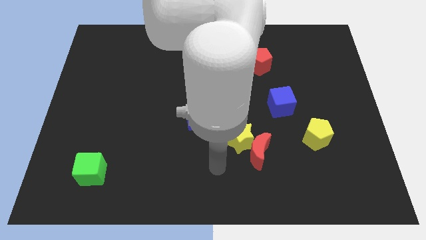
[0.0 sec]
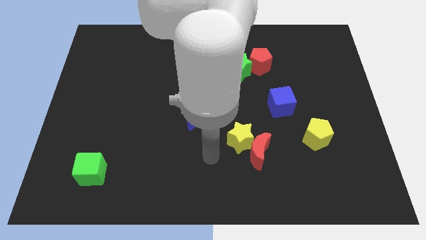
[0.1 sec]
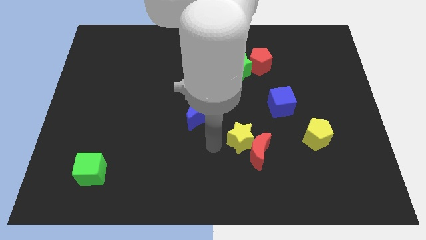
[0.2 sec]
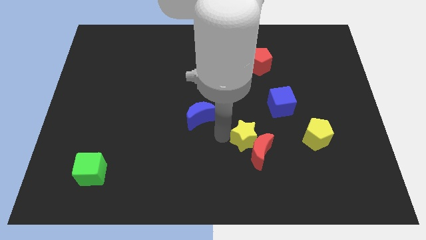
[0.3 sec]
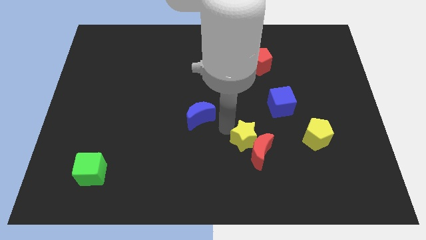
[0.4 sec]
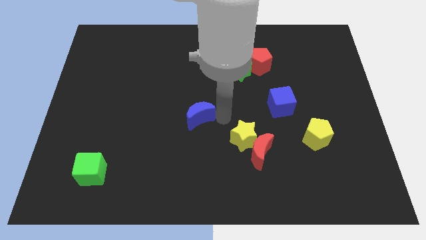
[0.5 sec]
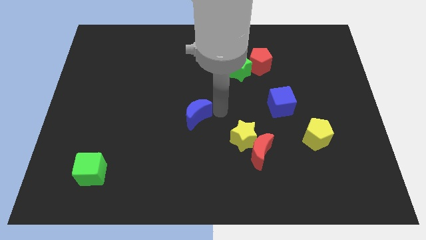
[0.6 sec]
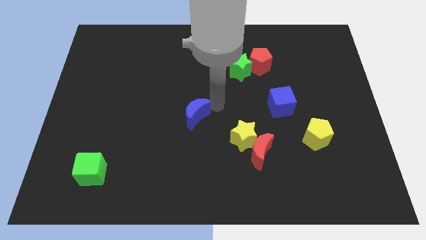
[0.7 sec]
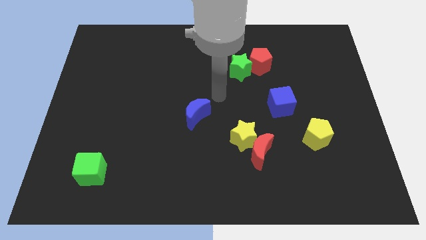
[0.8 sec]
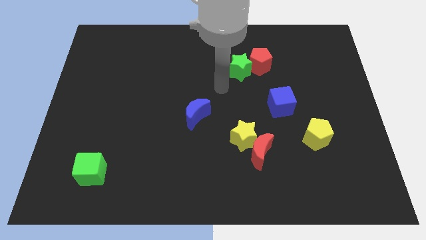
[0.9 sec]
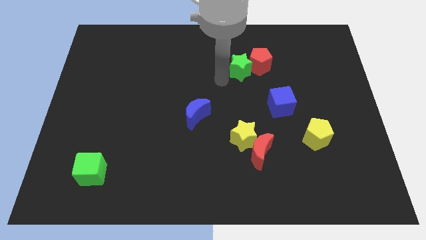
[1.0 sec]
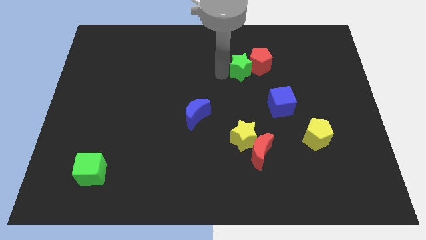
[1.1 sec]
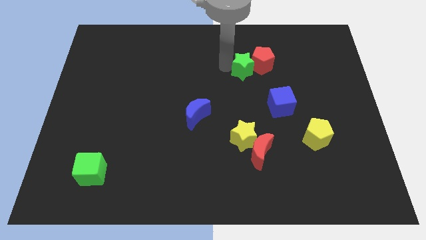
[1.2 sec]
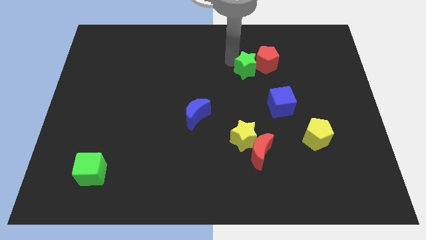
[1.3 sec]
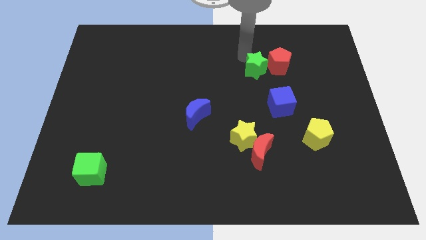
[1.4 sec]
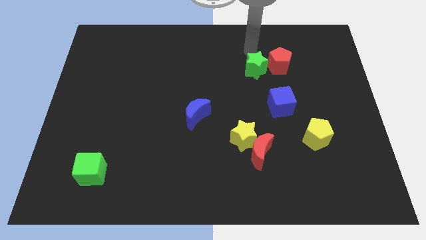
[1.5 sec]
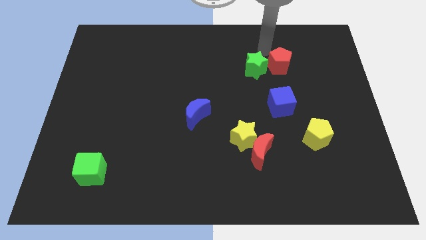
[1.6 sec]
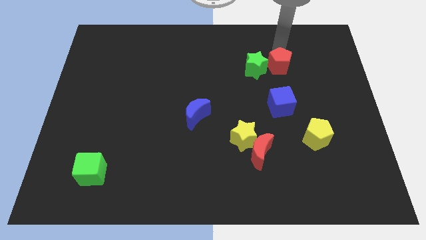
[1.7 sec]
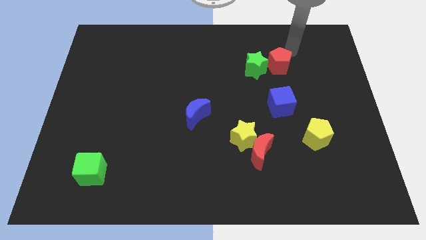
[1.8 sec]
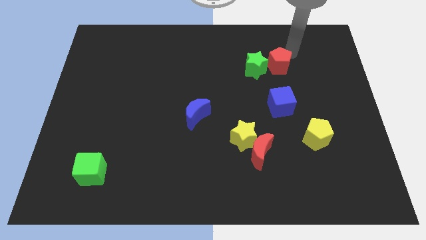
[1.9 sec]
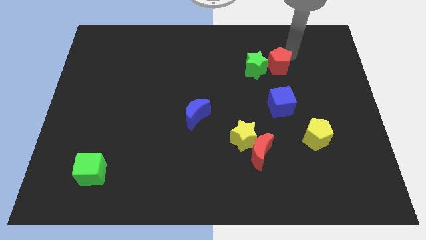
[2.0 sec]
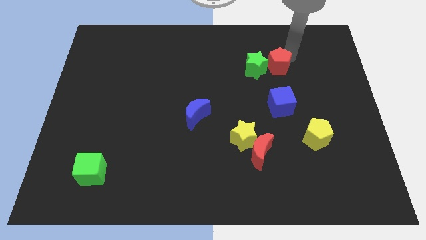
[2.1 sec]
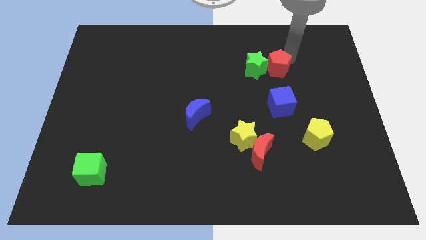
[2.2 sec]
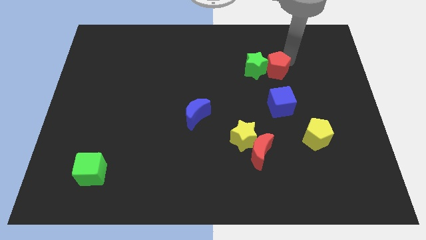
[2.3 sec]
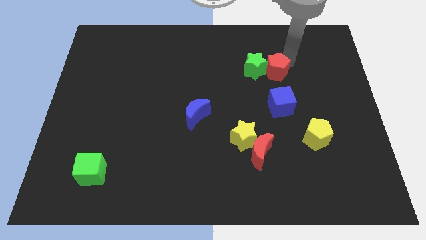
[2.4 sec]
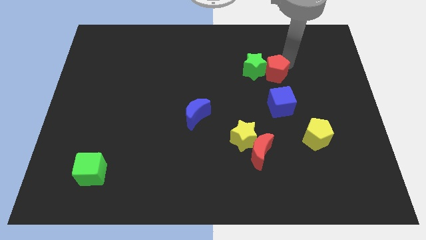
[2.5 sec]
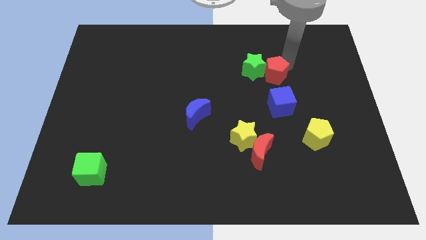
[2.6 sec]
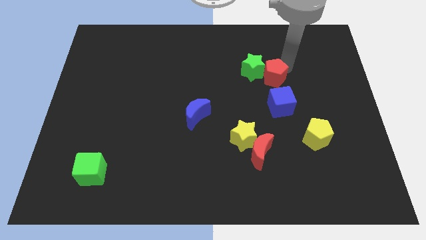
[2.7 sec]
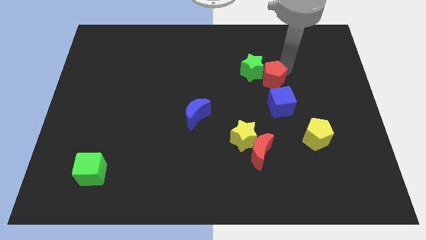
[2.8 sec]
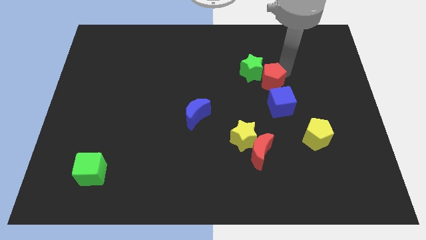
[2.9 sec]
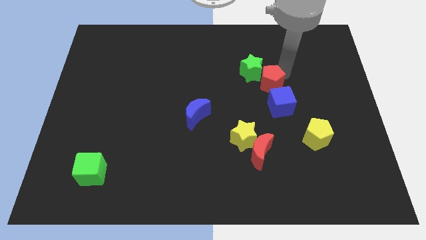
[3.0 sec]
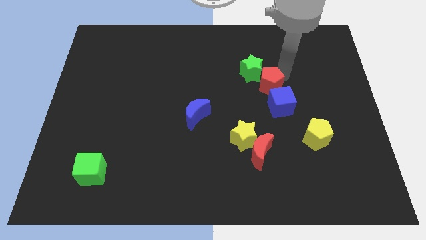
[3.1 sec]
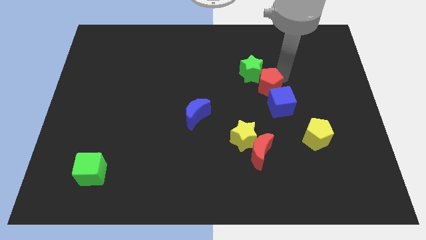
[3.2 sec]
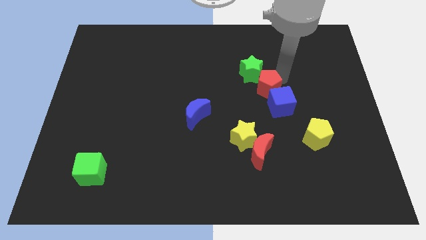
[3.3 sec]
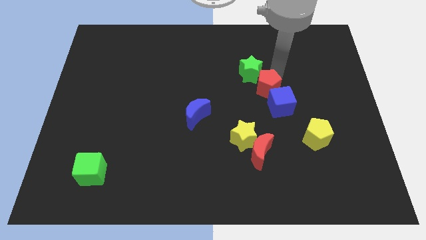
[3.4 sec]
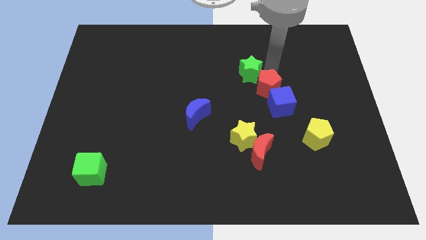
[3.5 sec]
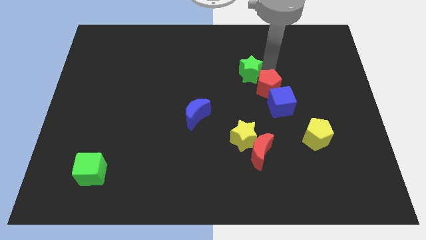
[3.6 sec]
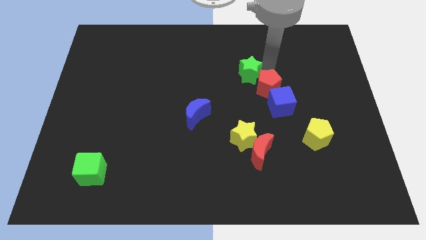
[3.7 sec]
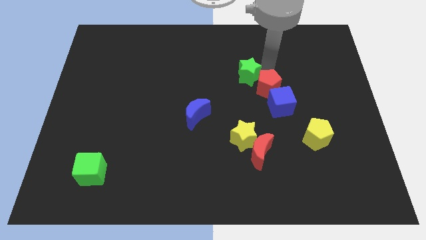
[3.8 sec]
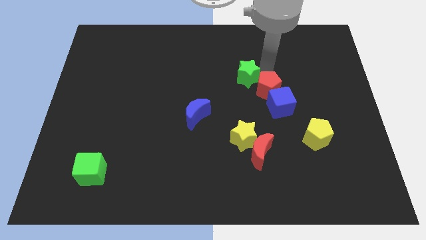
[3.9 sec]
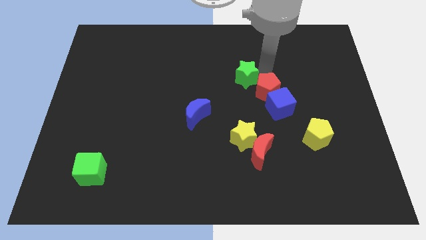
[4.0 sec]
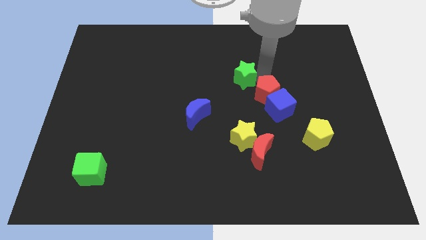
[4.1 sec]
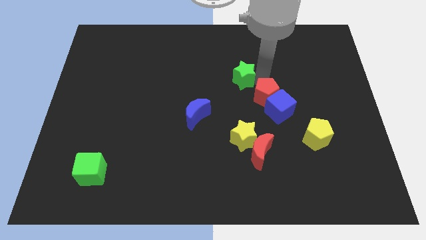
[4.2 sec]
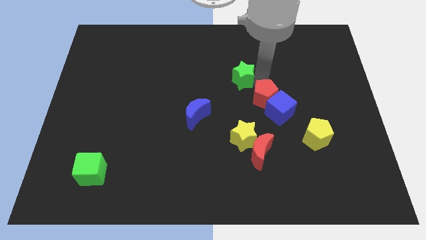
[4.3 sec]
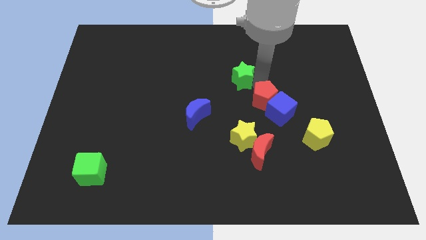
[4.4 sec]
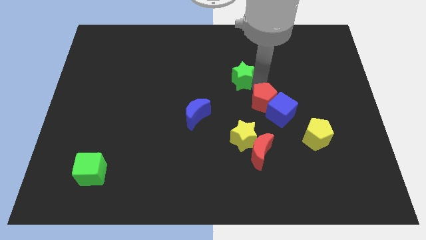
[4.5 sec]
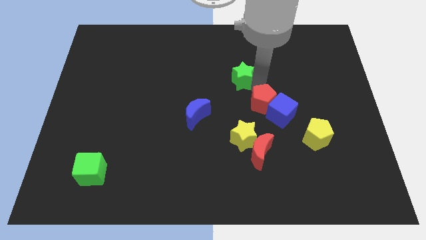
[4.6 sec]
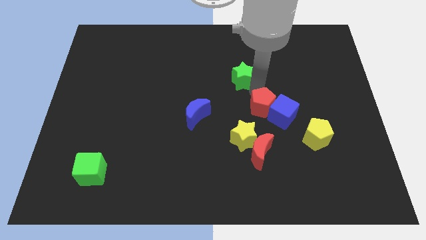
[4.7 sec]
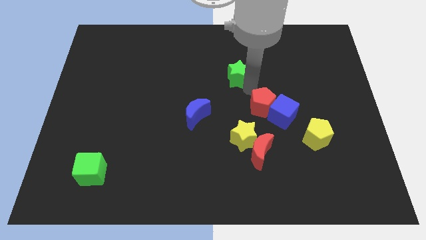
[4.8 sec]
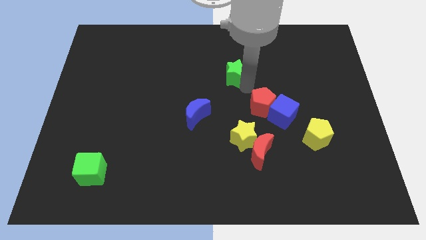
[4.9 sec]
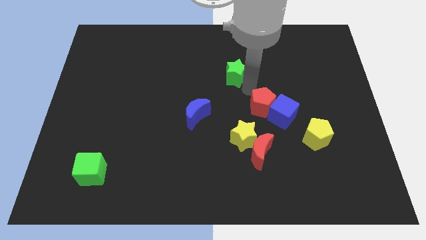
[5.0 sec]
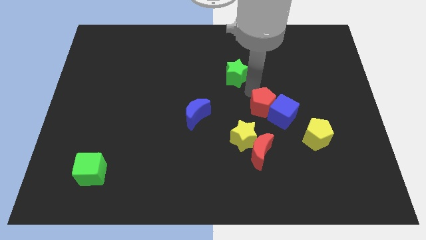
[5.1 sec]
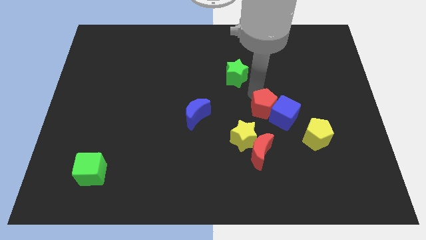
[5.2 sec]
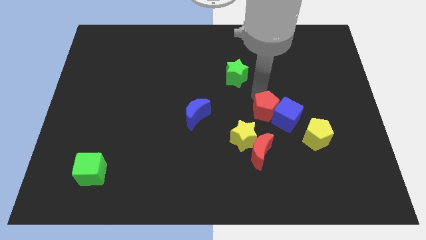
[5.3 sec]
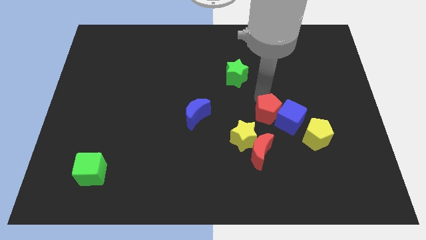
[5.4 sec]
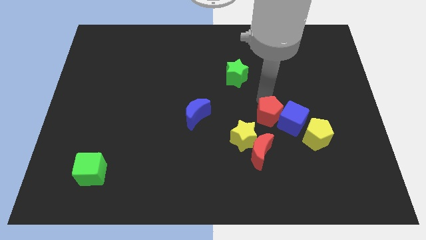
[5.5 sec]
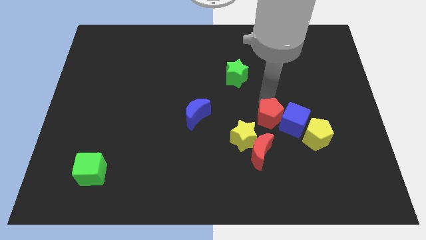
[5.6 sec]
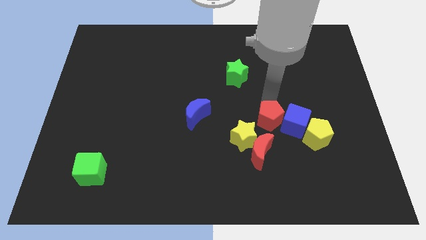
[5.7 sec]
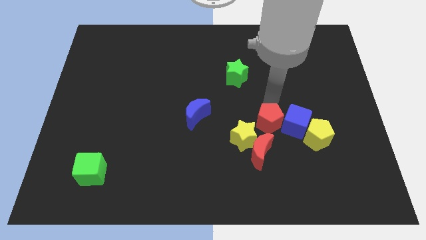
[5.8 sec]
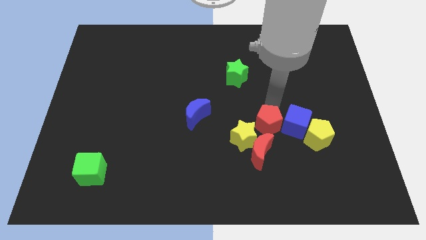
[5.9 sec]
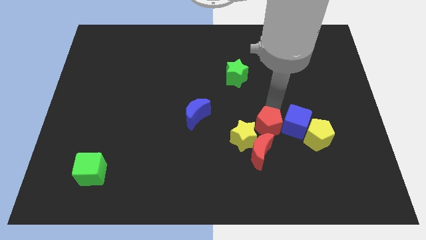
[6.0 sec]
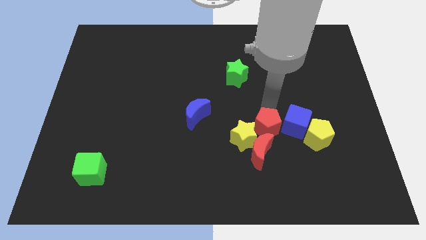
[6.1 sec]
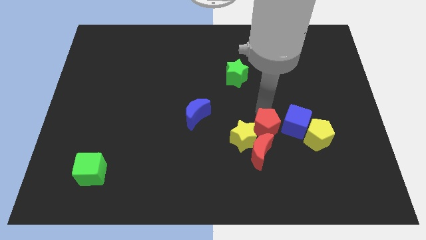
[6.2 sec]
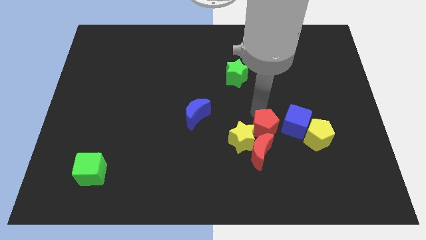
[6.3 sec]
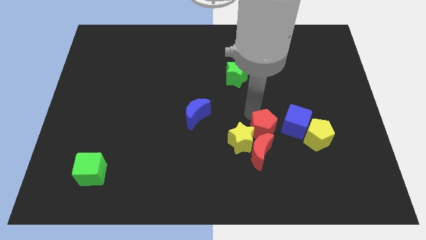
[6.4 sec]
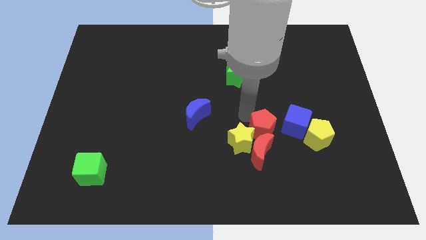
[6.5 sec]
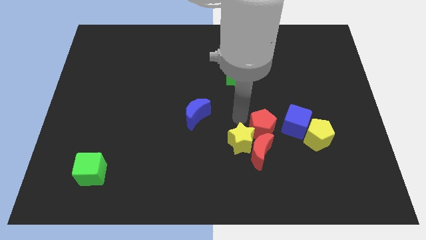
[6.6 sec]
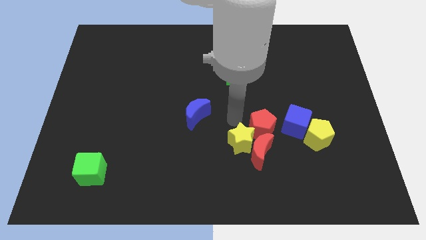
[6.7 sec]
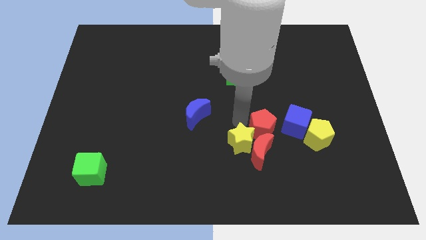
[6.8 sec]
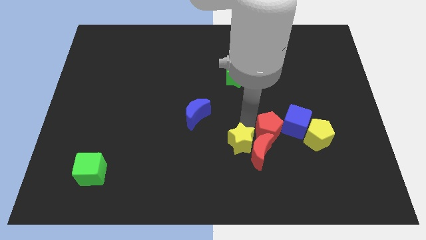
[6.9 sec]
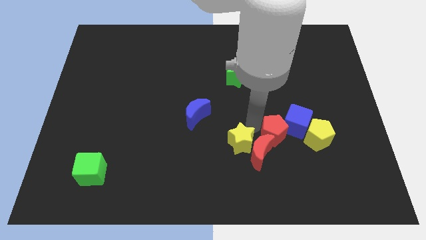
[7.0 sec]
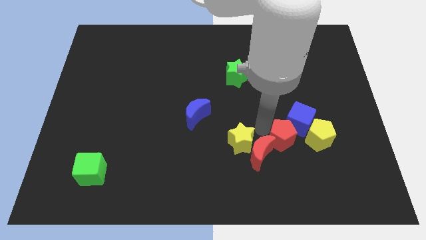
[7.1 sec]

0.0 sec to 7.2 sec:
move the red pentagon right of the red moon
